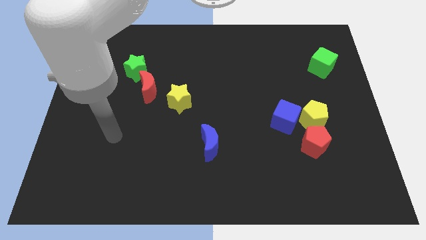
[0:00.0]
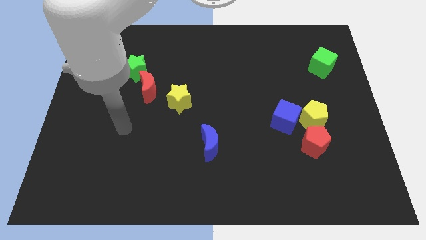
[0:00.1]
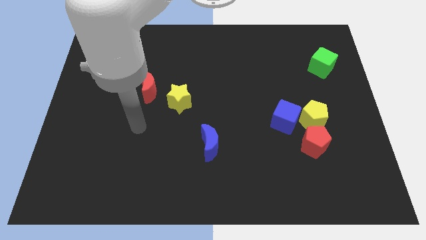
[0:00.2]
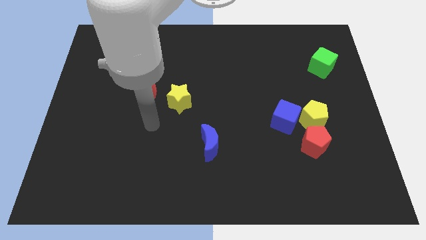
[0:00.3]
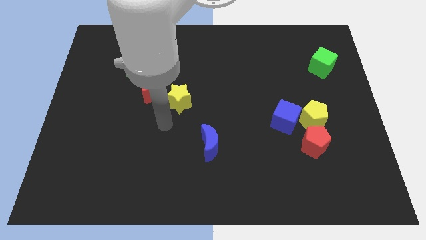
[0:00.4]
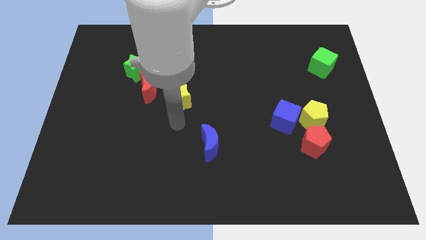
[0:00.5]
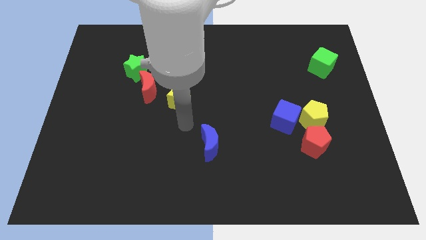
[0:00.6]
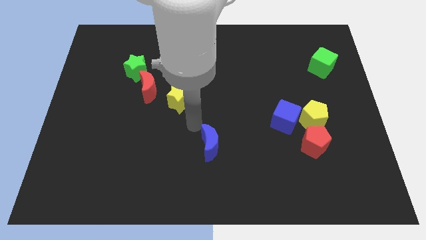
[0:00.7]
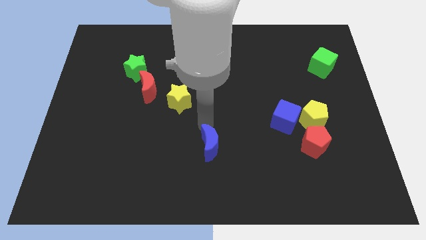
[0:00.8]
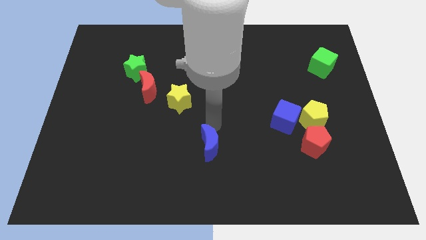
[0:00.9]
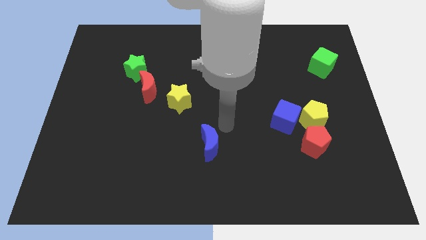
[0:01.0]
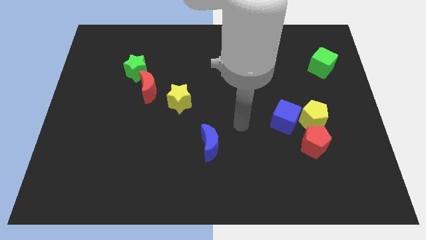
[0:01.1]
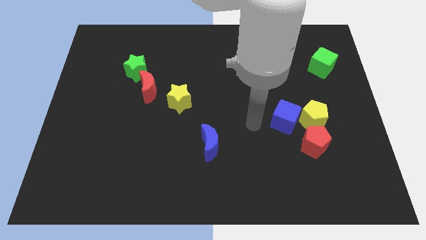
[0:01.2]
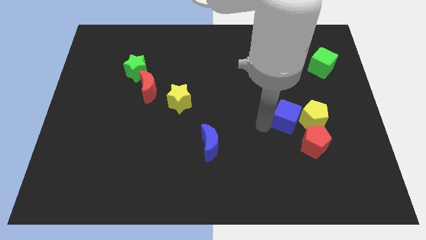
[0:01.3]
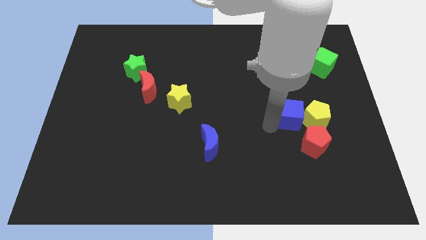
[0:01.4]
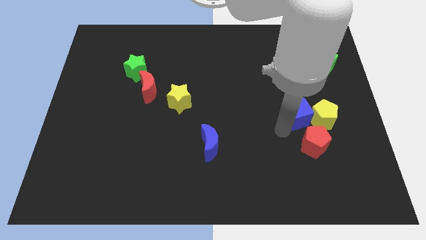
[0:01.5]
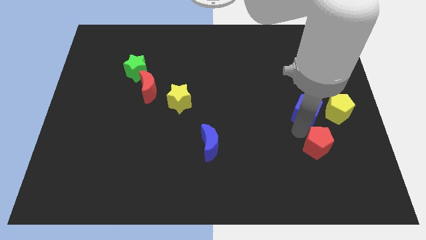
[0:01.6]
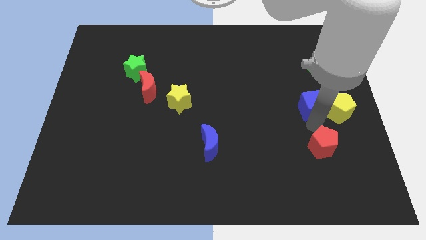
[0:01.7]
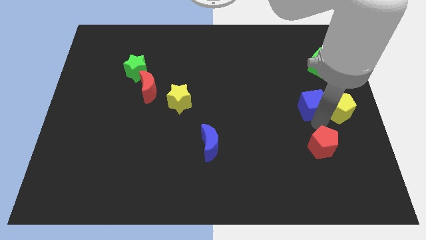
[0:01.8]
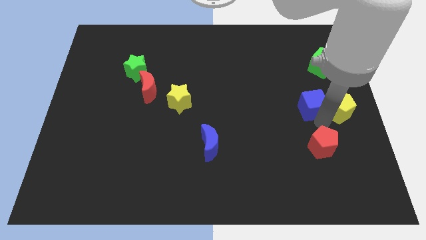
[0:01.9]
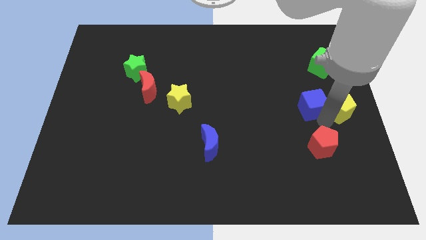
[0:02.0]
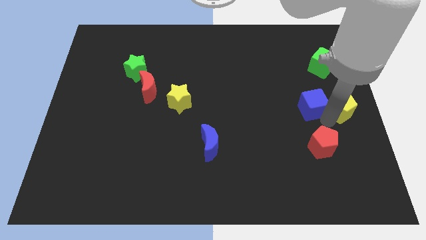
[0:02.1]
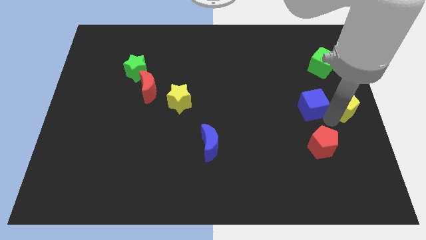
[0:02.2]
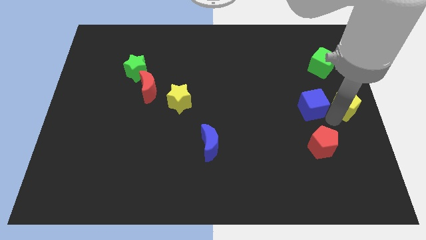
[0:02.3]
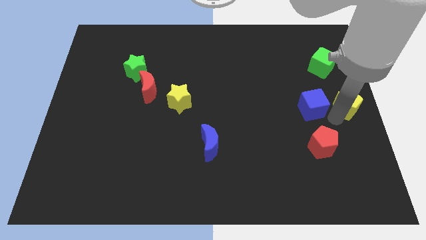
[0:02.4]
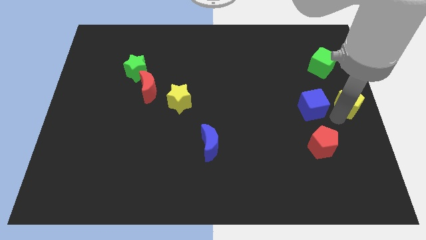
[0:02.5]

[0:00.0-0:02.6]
move the yellow pentagon away from the blue cube and red pentagon

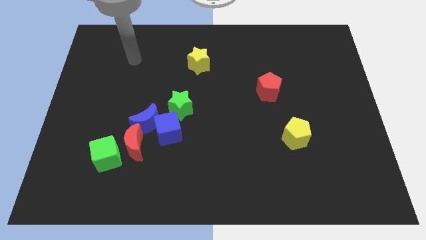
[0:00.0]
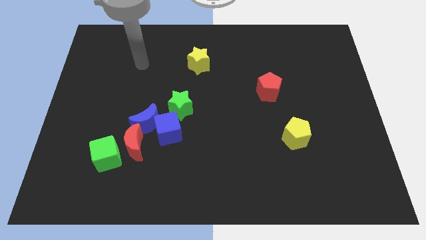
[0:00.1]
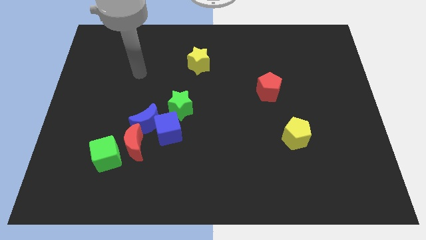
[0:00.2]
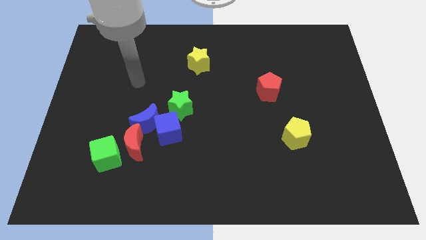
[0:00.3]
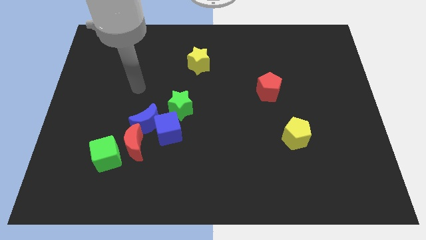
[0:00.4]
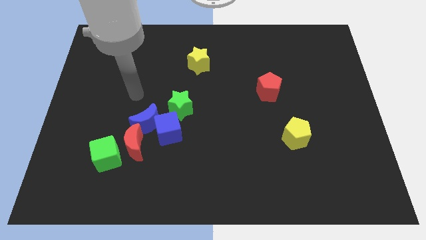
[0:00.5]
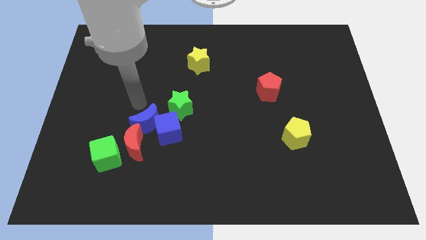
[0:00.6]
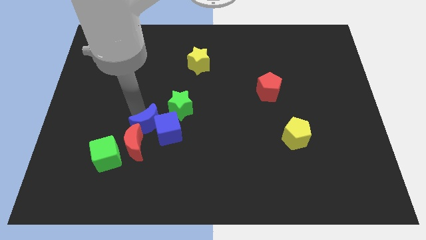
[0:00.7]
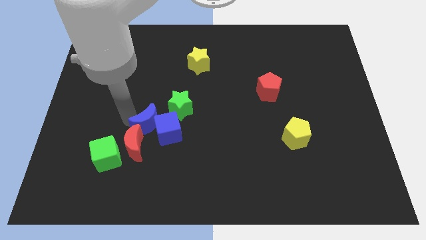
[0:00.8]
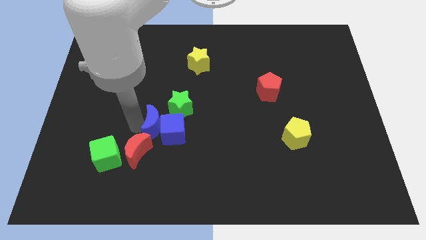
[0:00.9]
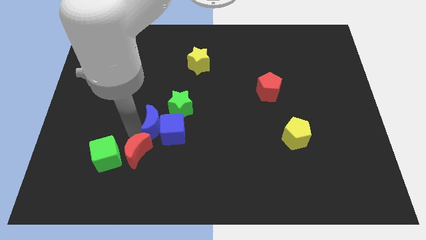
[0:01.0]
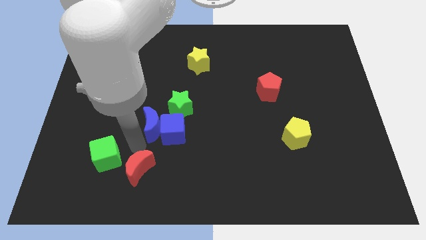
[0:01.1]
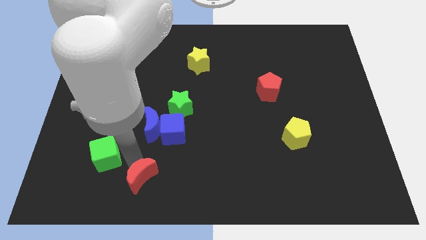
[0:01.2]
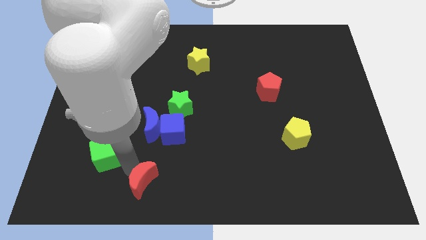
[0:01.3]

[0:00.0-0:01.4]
move the green cube away from the red moon

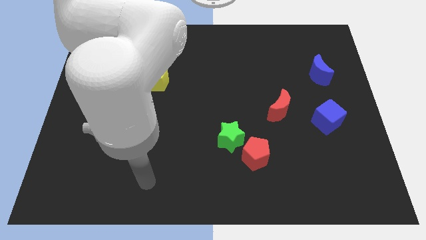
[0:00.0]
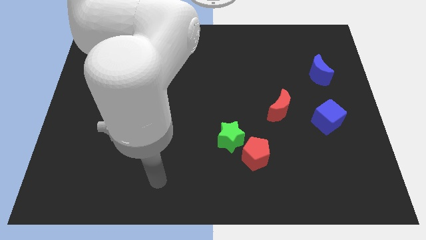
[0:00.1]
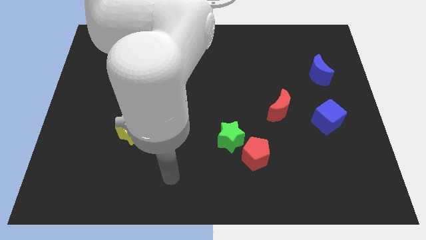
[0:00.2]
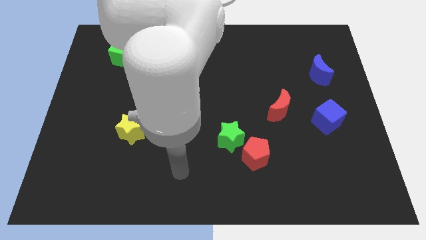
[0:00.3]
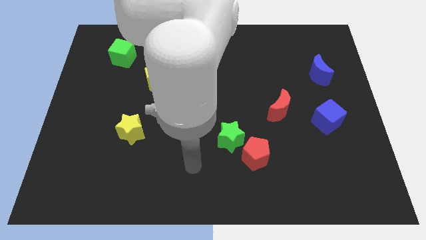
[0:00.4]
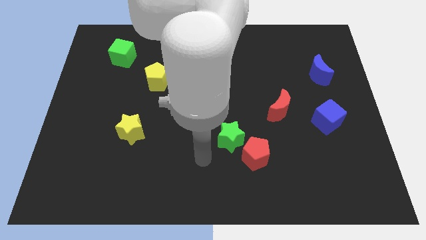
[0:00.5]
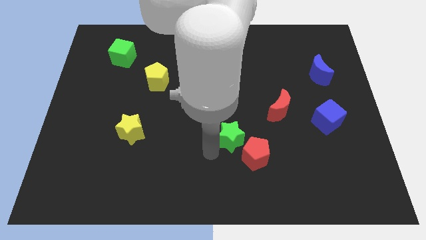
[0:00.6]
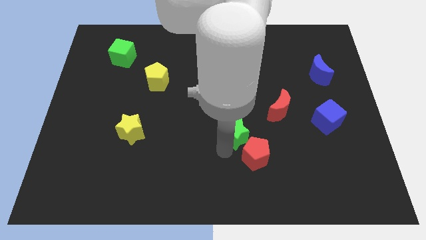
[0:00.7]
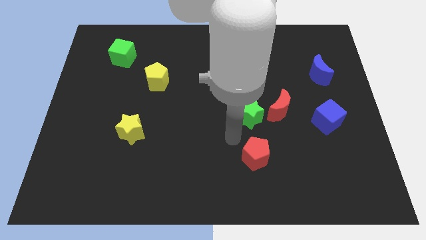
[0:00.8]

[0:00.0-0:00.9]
pull the red pentagon apart from the green star

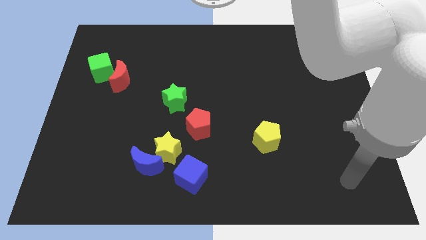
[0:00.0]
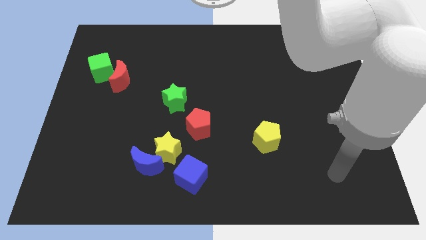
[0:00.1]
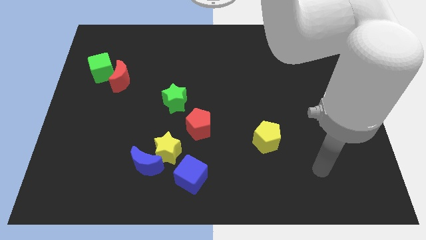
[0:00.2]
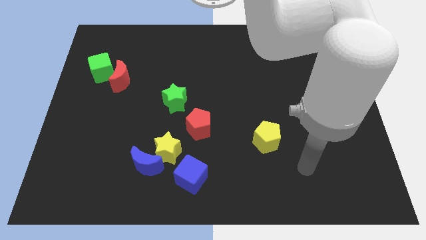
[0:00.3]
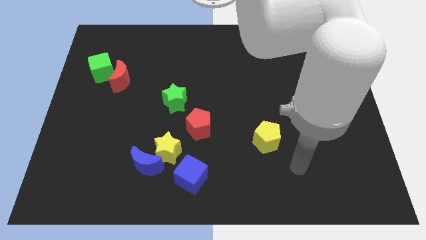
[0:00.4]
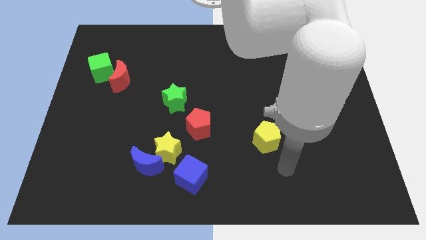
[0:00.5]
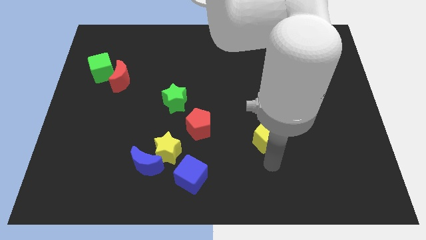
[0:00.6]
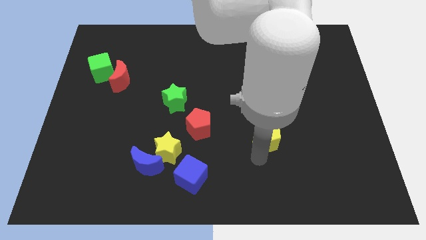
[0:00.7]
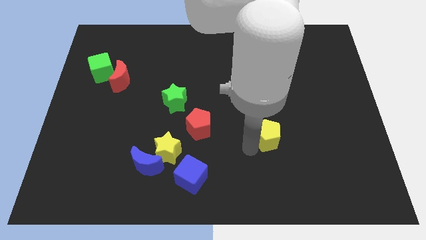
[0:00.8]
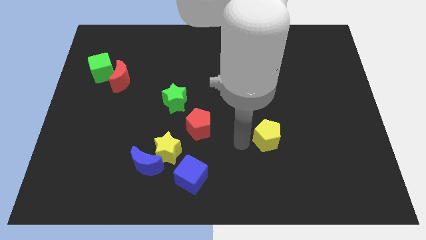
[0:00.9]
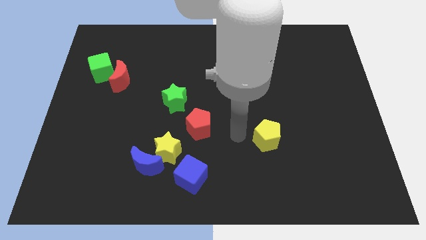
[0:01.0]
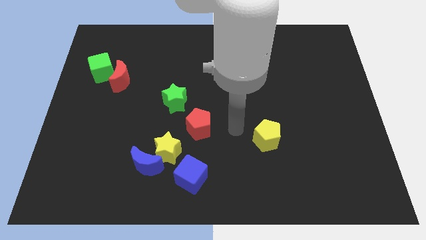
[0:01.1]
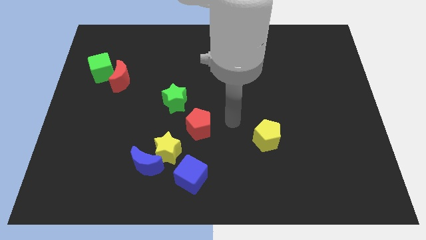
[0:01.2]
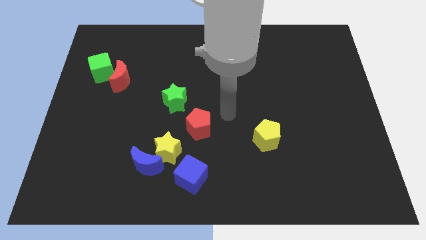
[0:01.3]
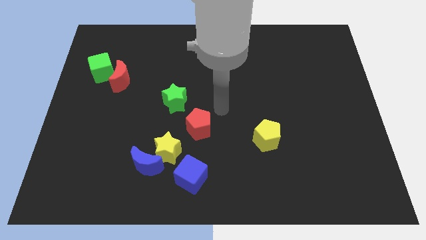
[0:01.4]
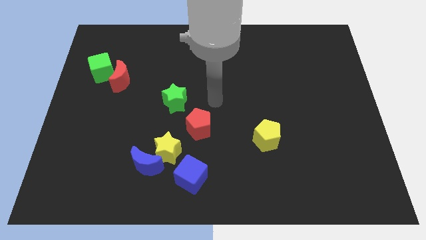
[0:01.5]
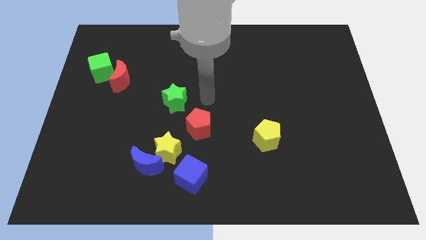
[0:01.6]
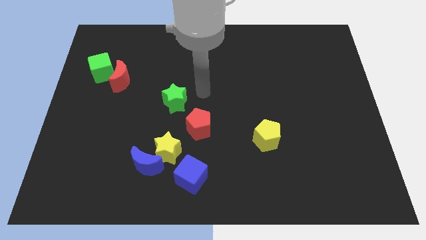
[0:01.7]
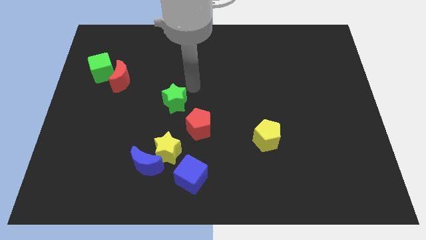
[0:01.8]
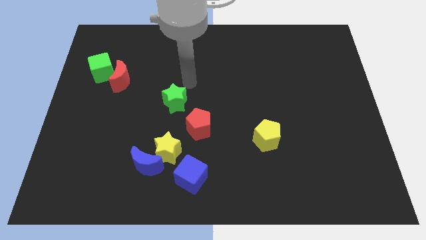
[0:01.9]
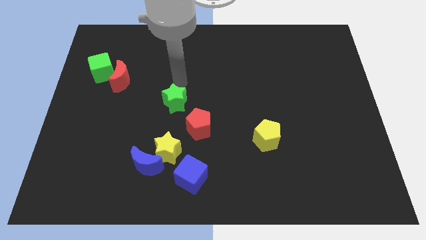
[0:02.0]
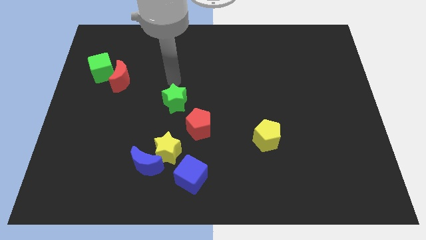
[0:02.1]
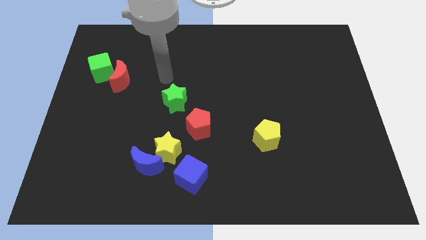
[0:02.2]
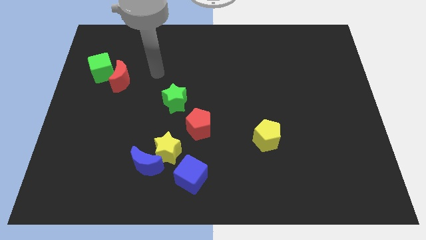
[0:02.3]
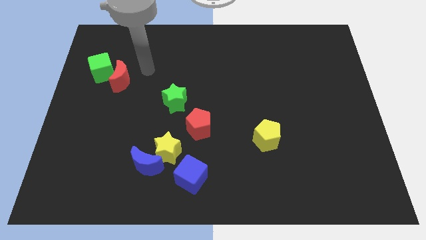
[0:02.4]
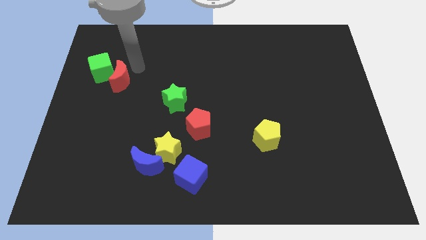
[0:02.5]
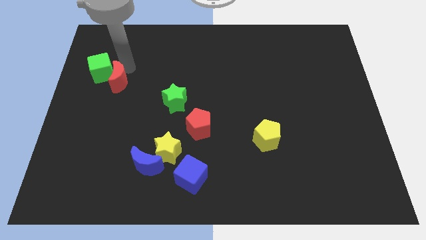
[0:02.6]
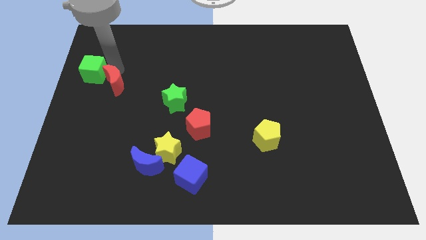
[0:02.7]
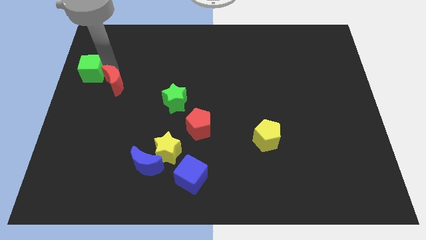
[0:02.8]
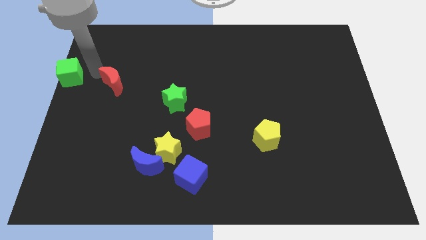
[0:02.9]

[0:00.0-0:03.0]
separate the red moon from the green cube

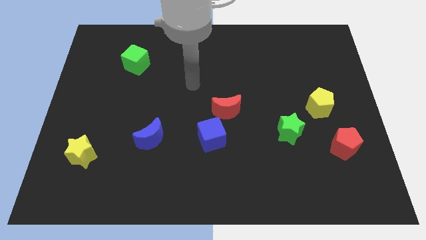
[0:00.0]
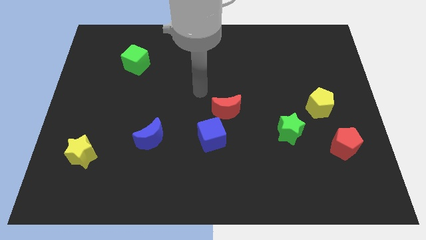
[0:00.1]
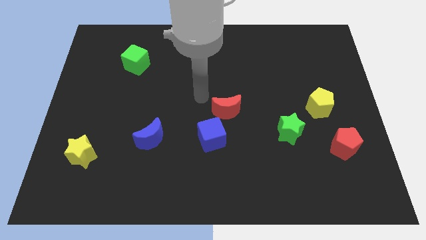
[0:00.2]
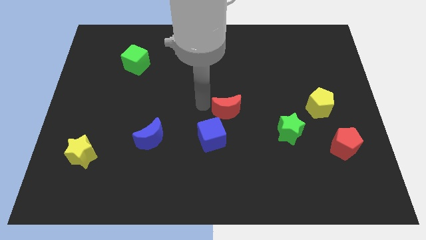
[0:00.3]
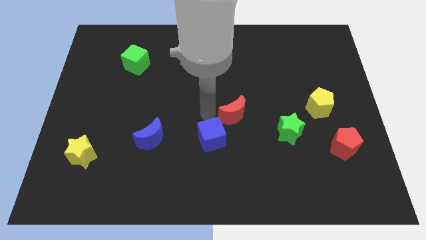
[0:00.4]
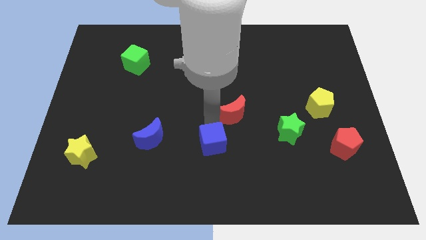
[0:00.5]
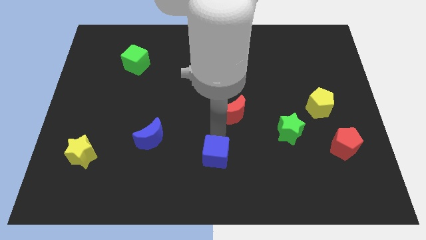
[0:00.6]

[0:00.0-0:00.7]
pull the red moon apart from the blue cube

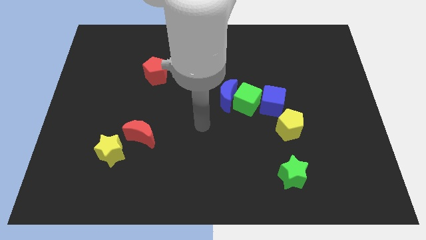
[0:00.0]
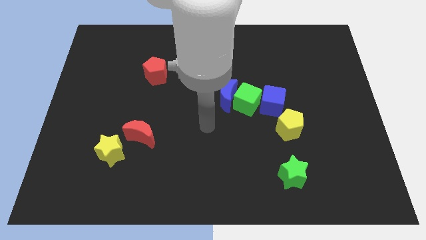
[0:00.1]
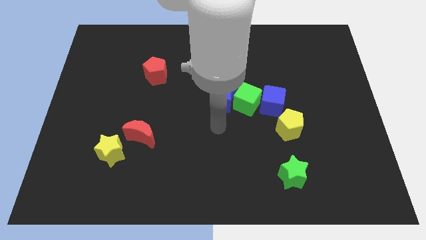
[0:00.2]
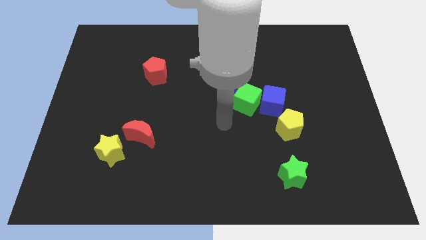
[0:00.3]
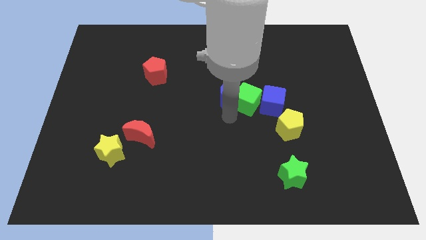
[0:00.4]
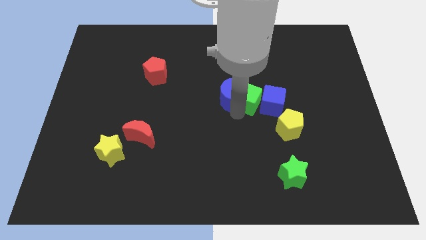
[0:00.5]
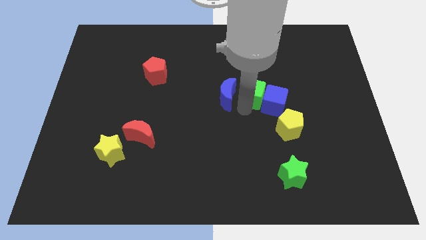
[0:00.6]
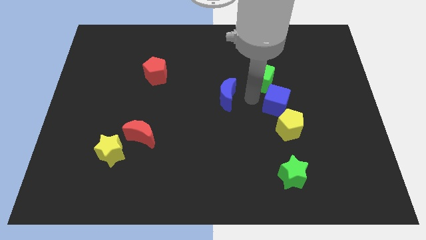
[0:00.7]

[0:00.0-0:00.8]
pull the blue moon apart from the green cube
